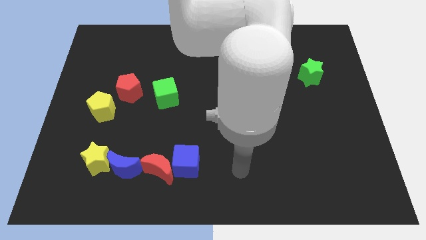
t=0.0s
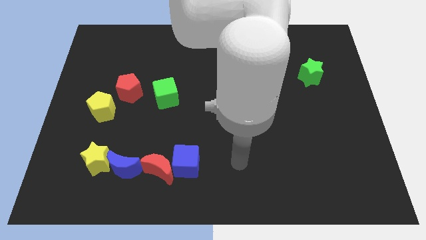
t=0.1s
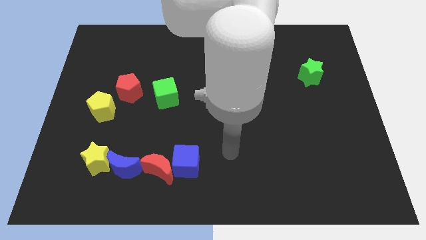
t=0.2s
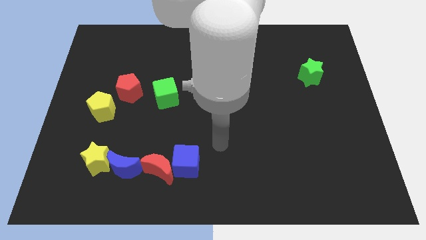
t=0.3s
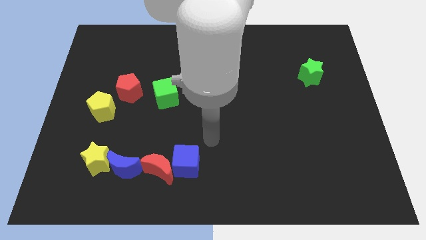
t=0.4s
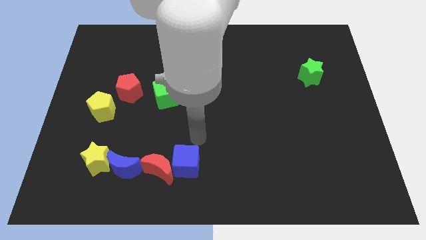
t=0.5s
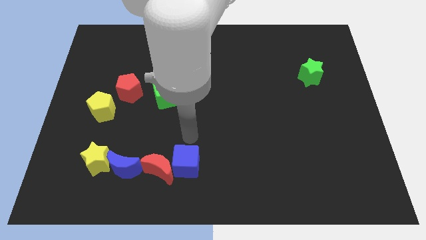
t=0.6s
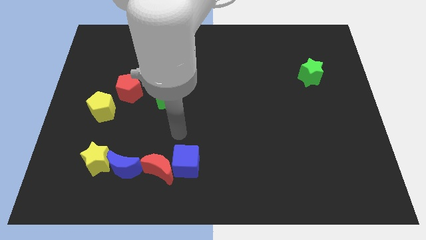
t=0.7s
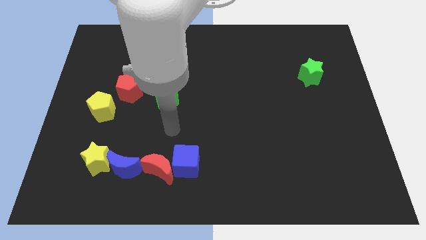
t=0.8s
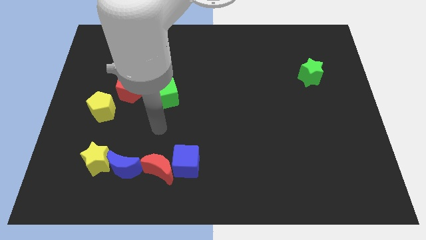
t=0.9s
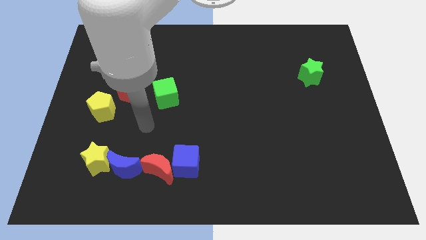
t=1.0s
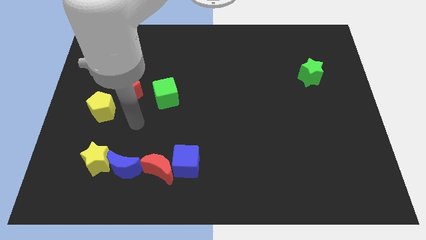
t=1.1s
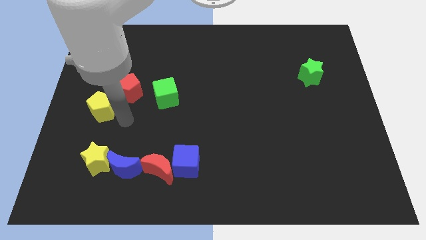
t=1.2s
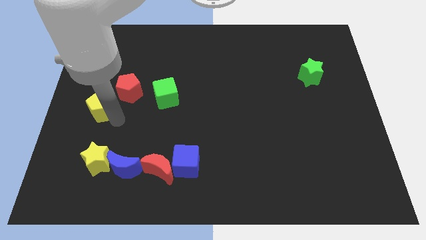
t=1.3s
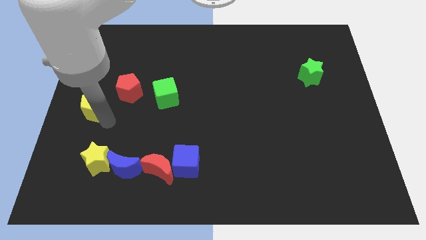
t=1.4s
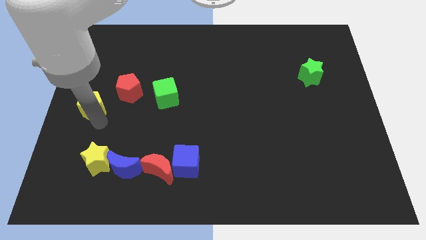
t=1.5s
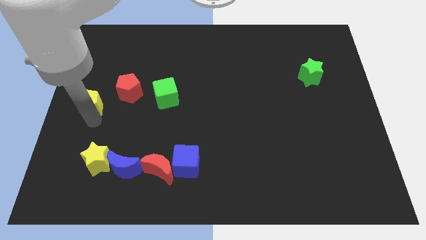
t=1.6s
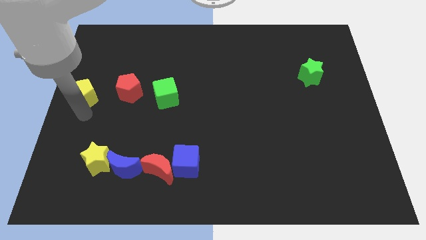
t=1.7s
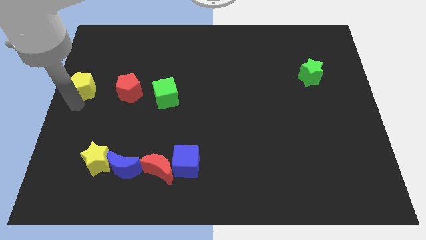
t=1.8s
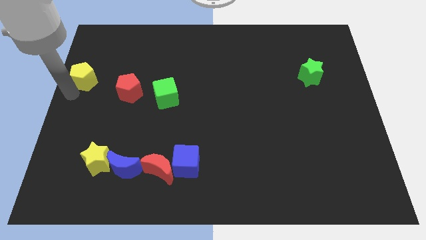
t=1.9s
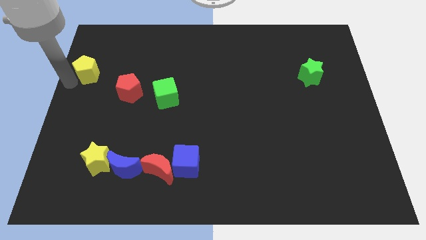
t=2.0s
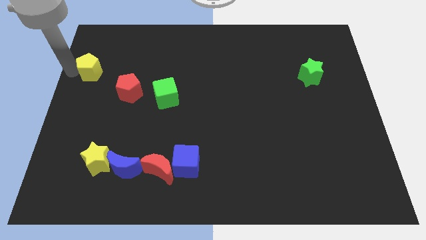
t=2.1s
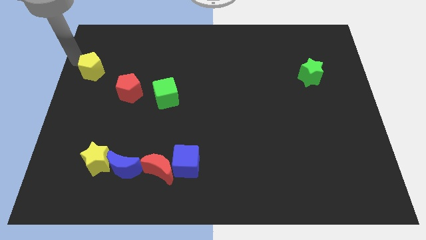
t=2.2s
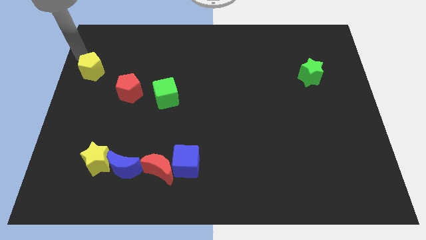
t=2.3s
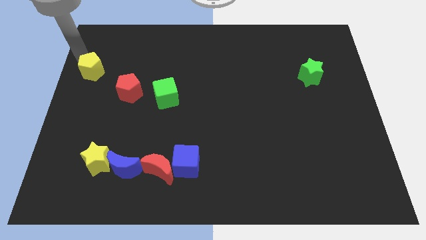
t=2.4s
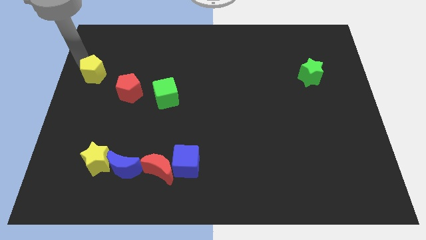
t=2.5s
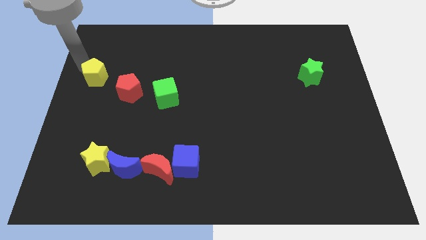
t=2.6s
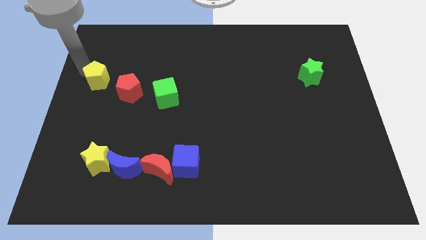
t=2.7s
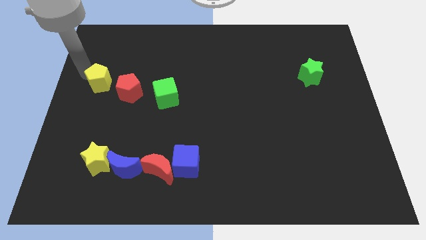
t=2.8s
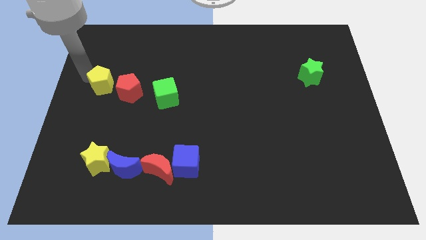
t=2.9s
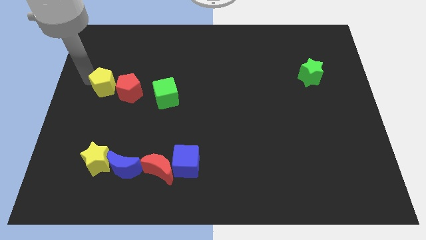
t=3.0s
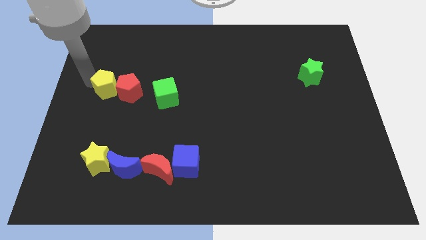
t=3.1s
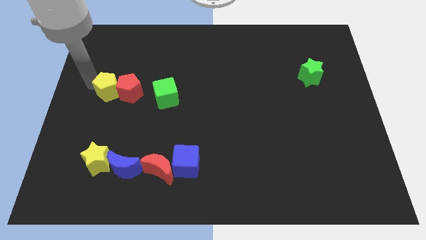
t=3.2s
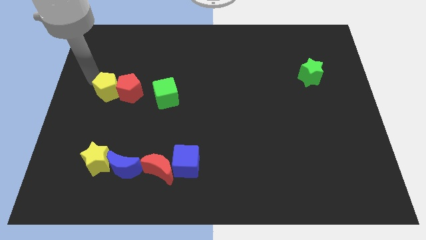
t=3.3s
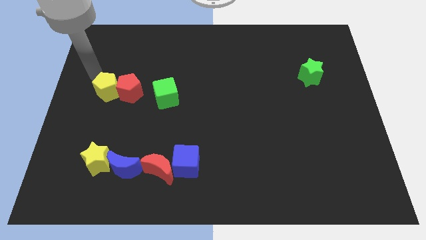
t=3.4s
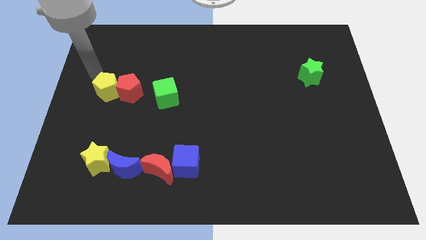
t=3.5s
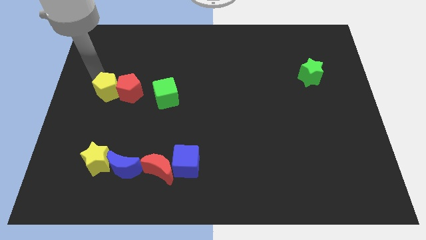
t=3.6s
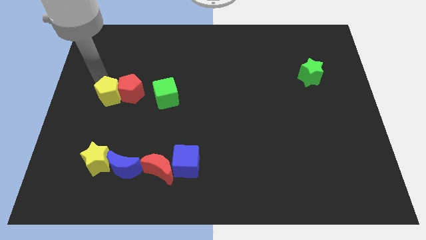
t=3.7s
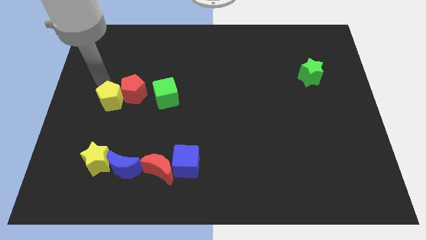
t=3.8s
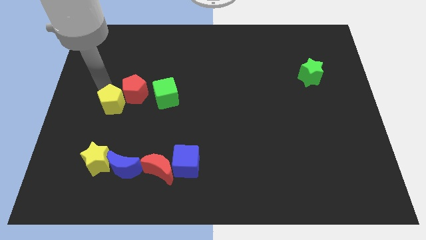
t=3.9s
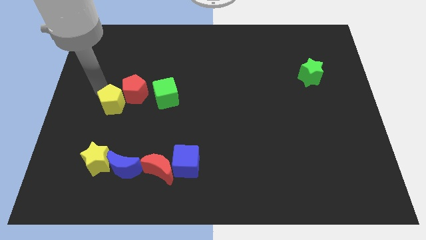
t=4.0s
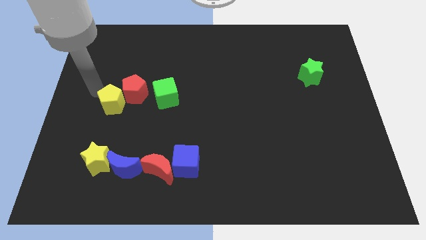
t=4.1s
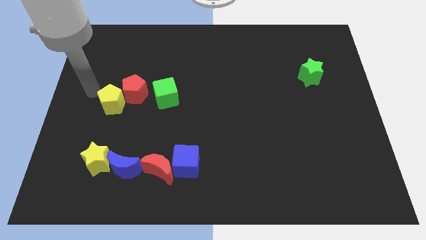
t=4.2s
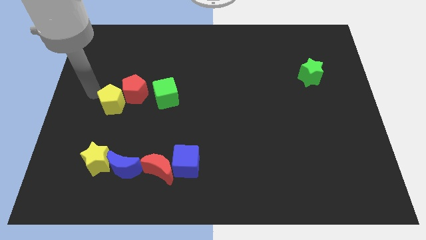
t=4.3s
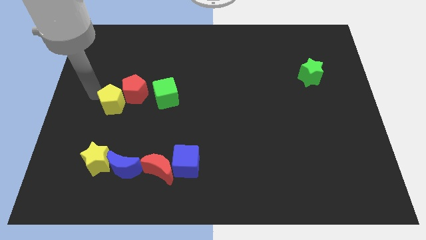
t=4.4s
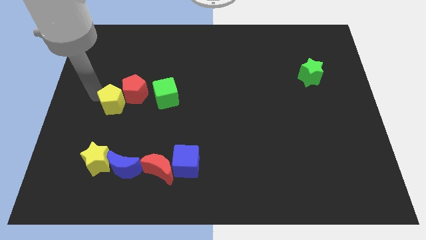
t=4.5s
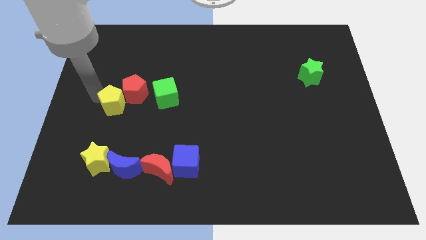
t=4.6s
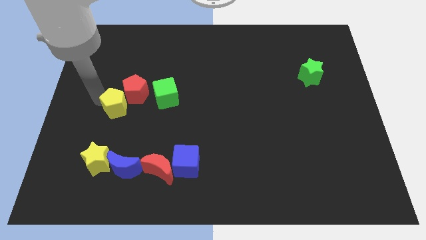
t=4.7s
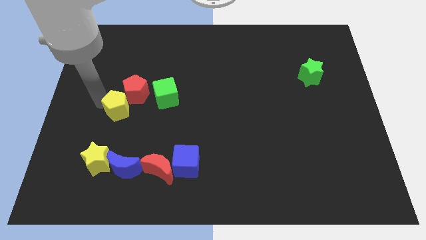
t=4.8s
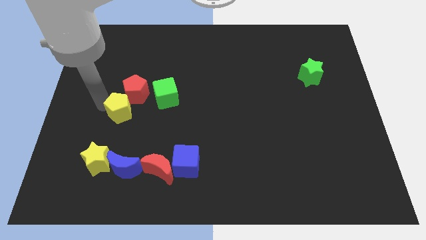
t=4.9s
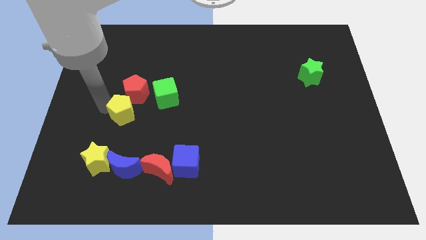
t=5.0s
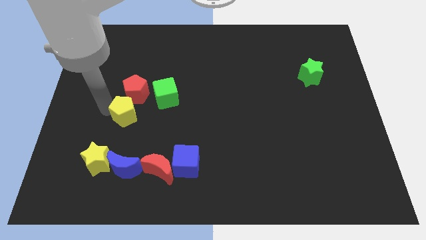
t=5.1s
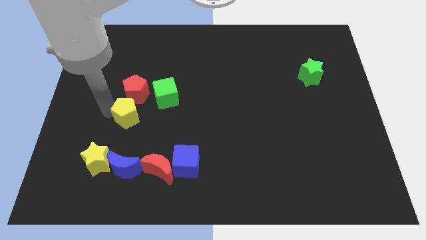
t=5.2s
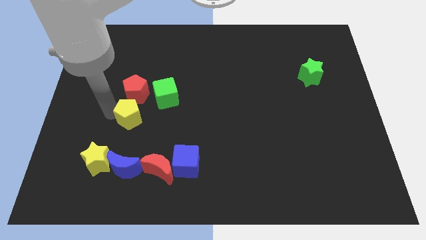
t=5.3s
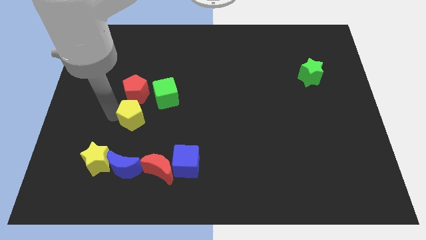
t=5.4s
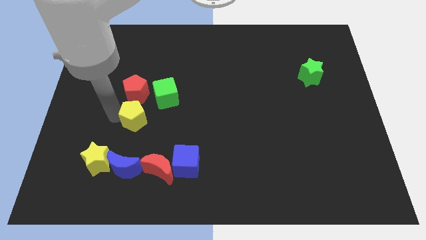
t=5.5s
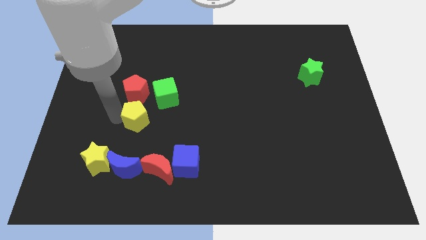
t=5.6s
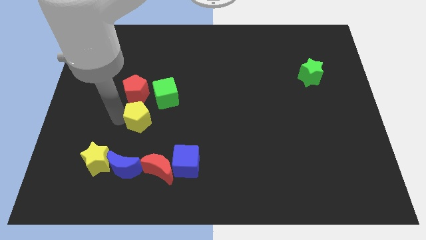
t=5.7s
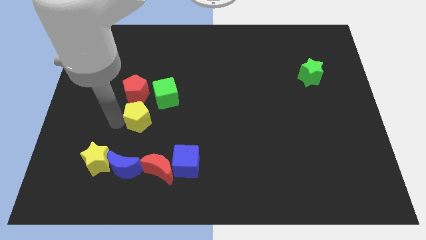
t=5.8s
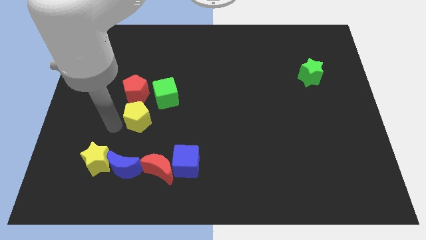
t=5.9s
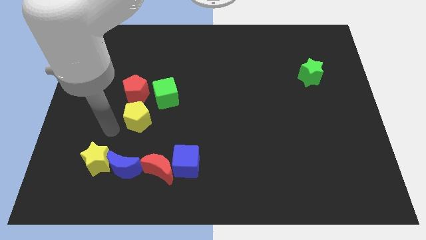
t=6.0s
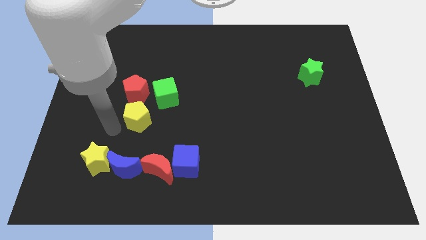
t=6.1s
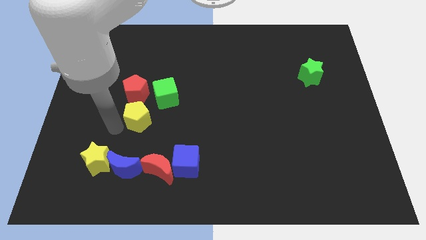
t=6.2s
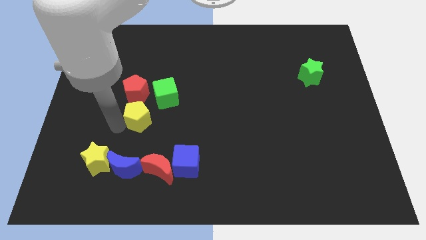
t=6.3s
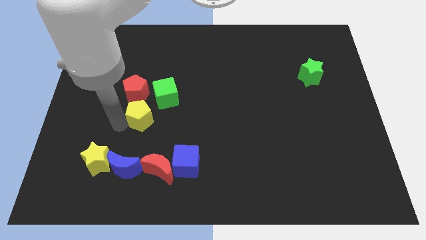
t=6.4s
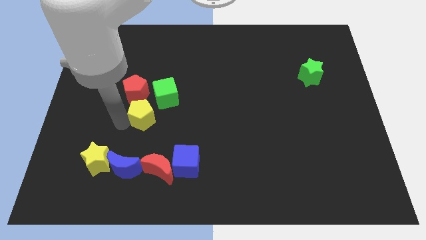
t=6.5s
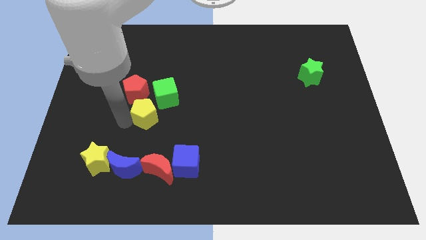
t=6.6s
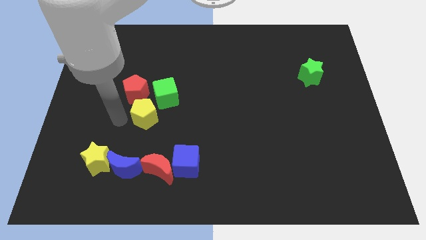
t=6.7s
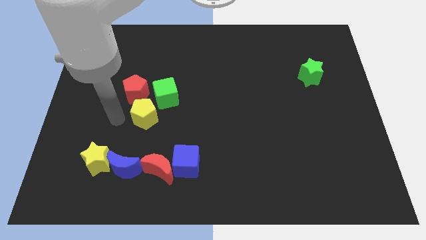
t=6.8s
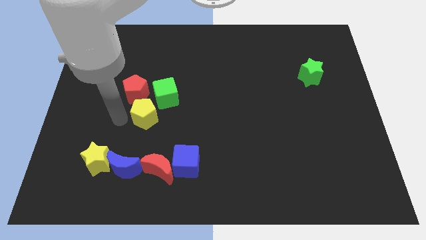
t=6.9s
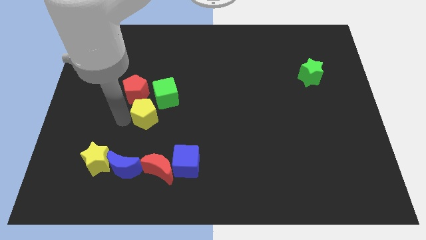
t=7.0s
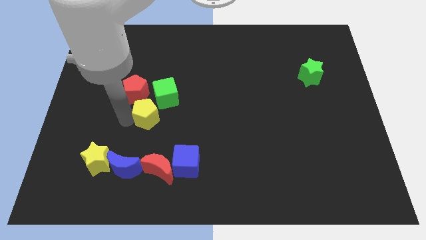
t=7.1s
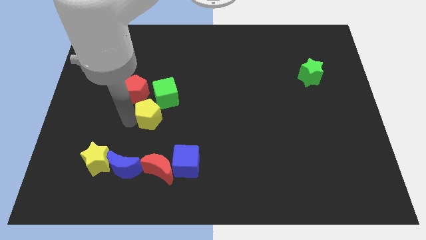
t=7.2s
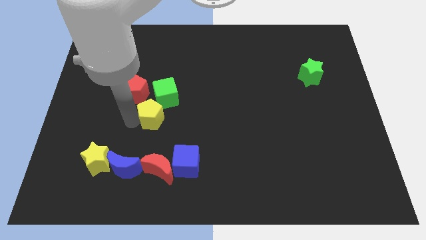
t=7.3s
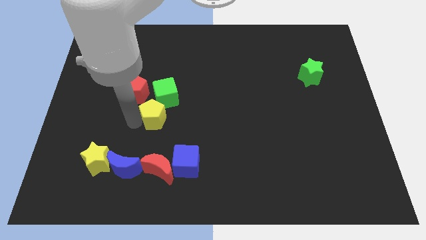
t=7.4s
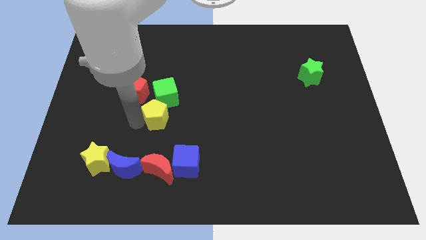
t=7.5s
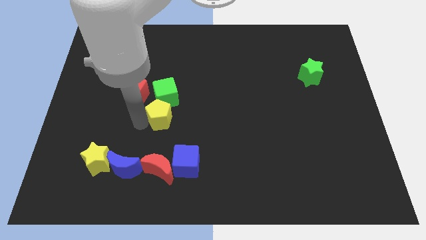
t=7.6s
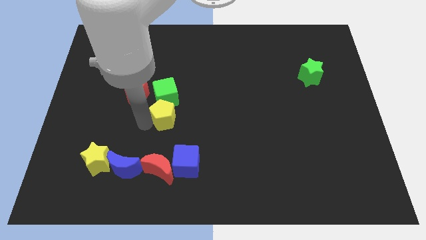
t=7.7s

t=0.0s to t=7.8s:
move the yellow pentagon to the middle
